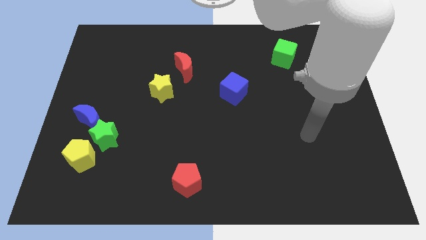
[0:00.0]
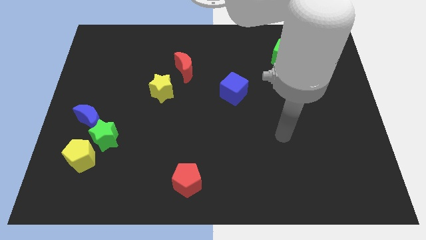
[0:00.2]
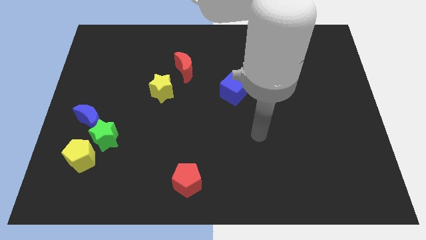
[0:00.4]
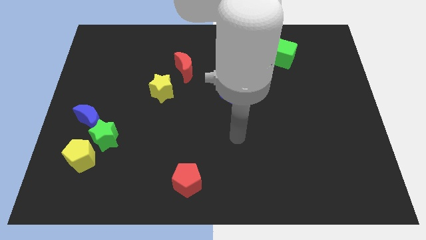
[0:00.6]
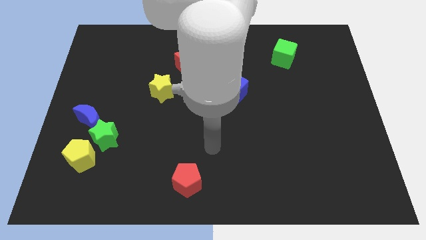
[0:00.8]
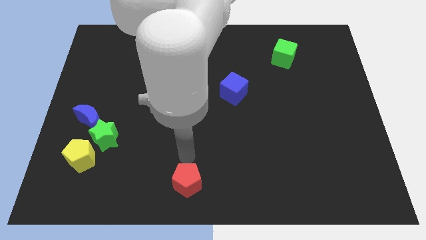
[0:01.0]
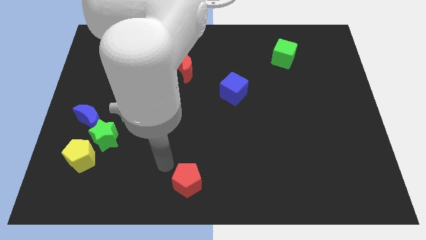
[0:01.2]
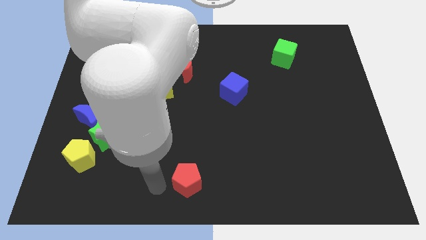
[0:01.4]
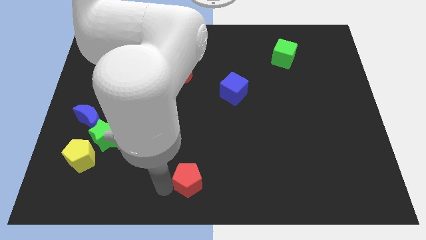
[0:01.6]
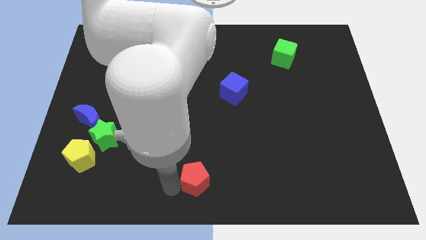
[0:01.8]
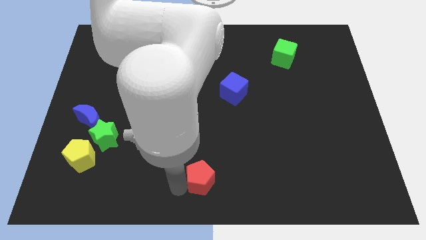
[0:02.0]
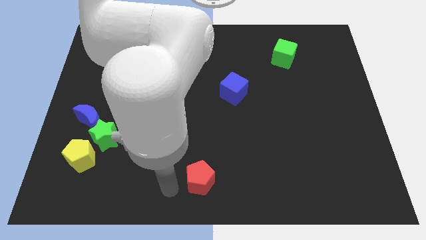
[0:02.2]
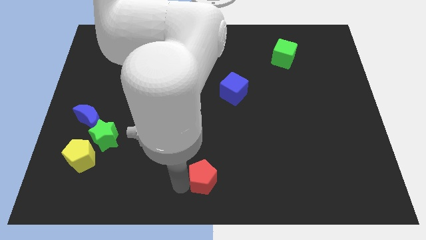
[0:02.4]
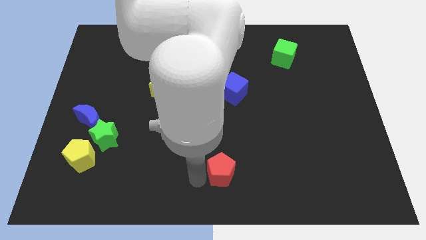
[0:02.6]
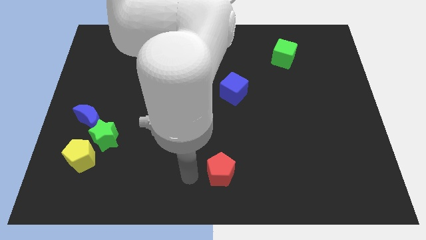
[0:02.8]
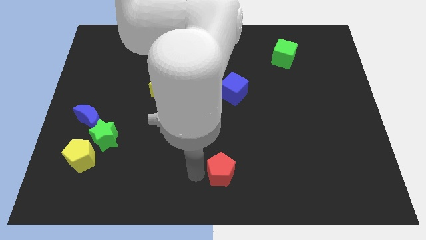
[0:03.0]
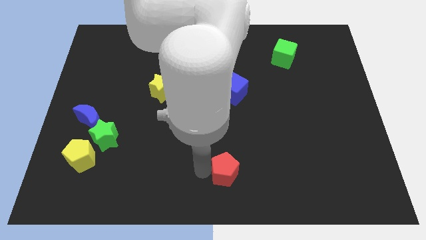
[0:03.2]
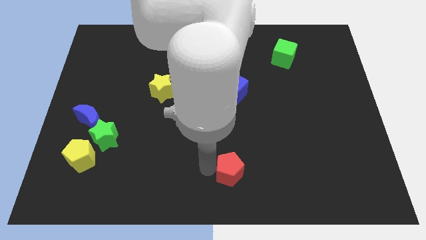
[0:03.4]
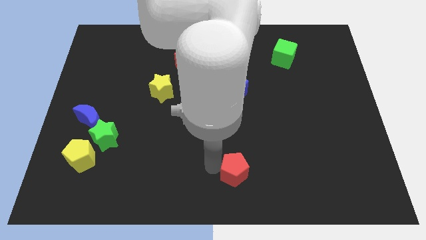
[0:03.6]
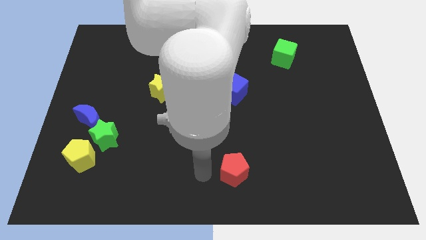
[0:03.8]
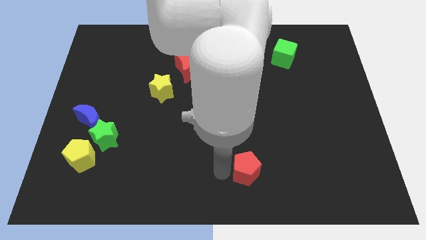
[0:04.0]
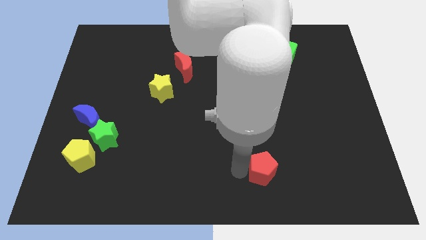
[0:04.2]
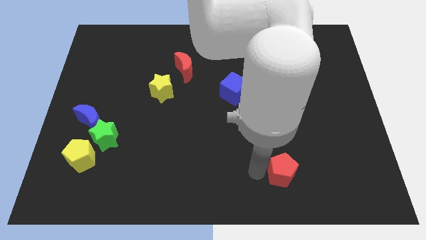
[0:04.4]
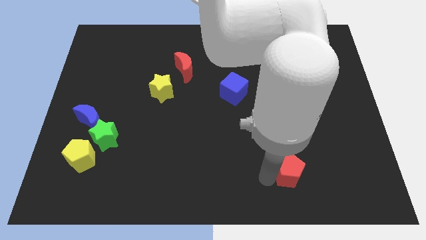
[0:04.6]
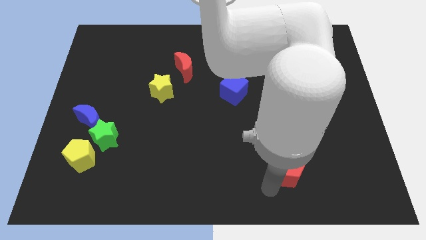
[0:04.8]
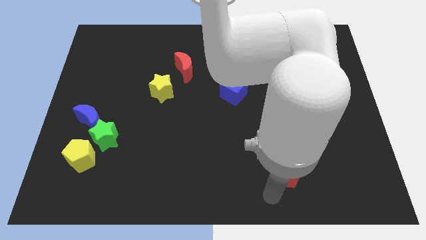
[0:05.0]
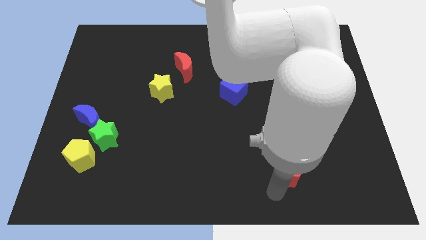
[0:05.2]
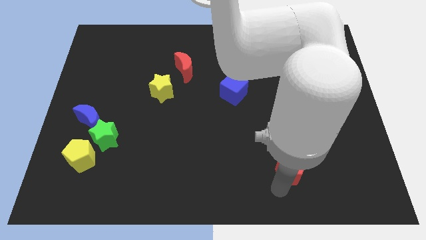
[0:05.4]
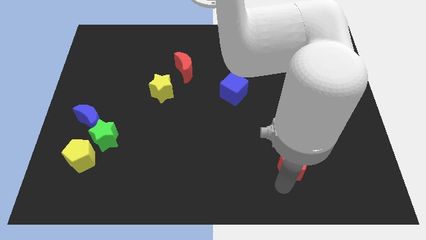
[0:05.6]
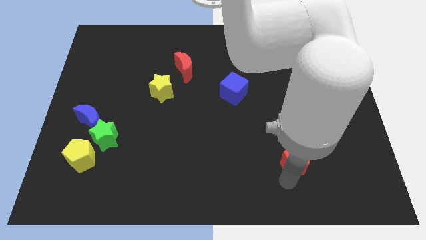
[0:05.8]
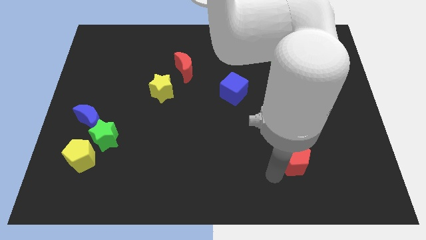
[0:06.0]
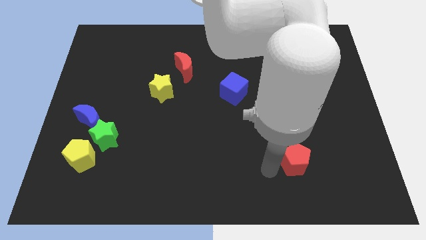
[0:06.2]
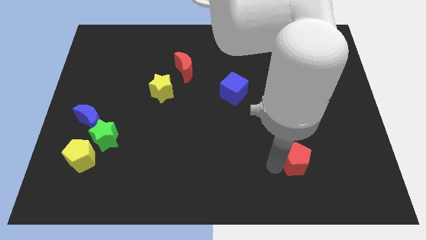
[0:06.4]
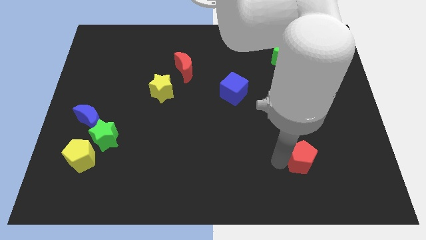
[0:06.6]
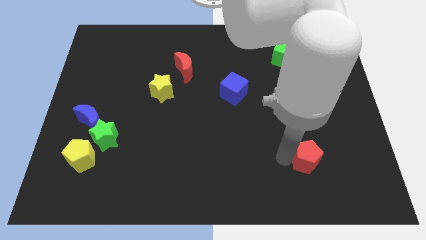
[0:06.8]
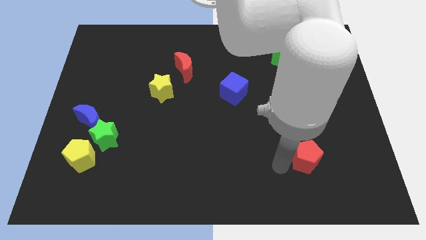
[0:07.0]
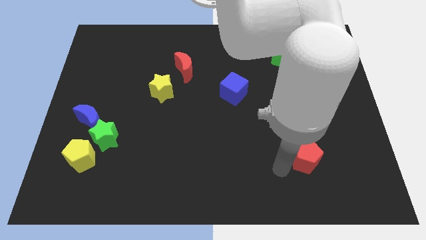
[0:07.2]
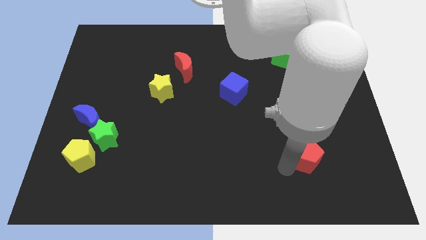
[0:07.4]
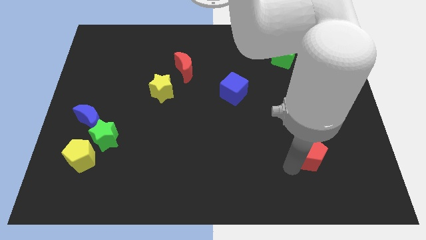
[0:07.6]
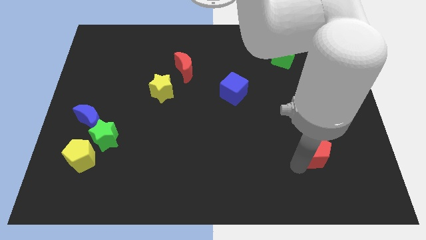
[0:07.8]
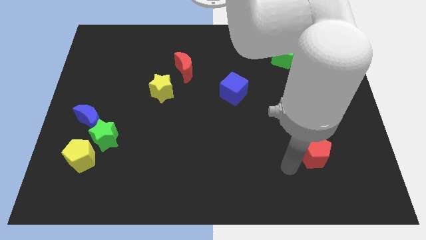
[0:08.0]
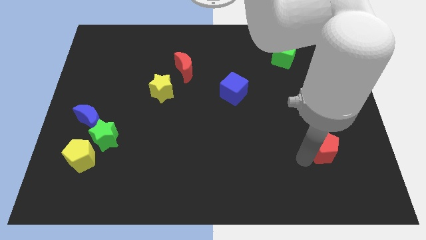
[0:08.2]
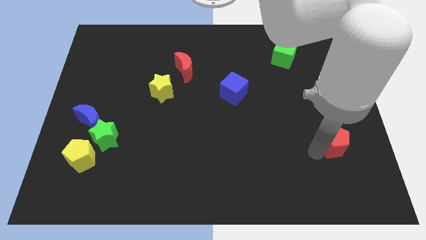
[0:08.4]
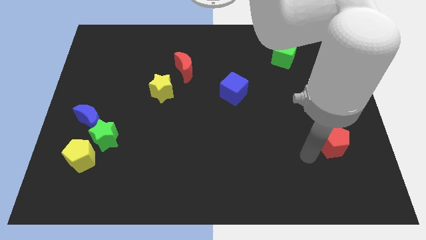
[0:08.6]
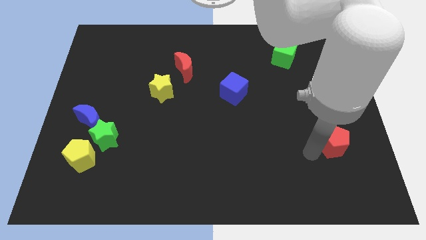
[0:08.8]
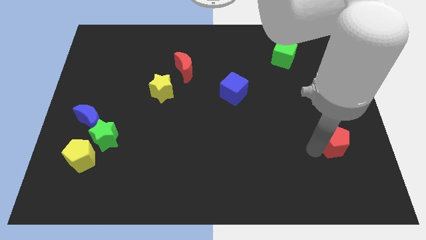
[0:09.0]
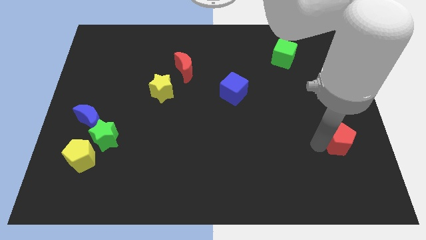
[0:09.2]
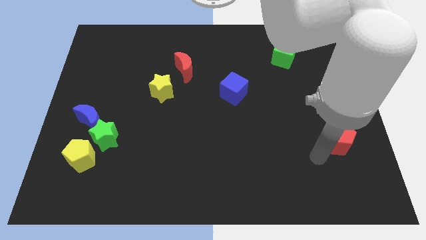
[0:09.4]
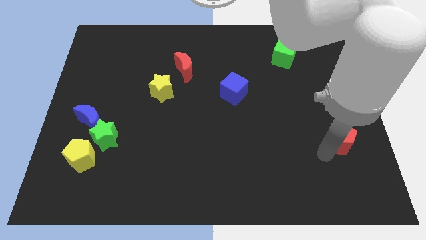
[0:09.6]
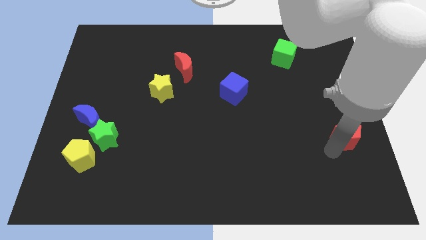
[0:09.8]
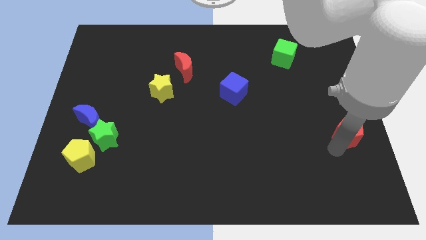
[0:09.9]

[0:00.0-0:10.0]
put the red pentagon to the right side

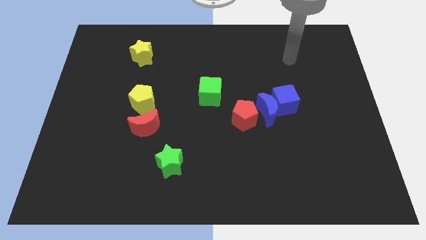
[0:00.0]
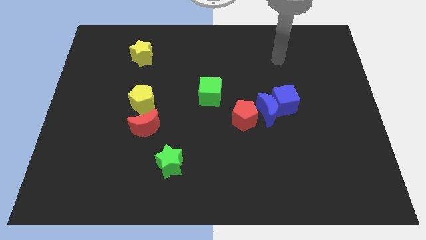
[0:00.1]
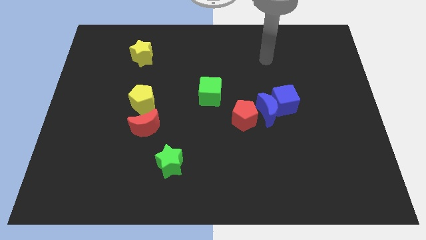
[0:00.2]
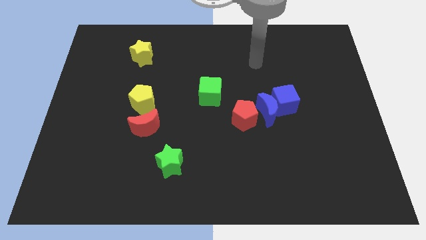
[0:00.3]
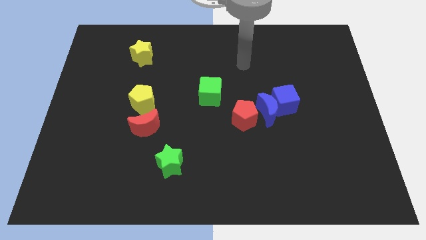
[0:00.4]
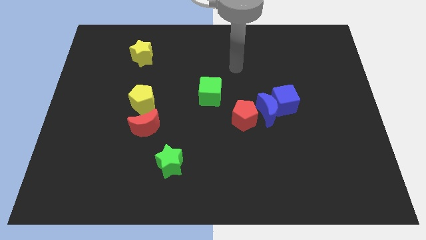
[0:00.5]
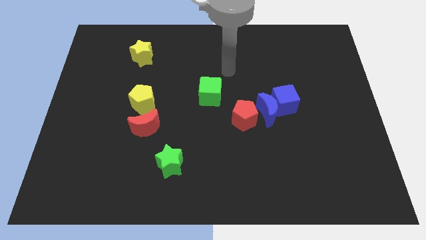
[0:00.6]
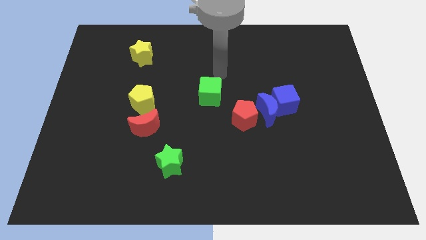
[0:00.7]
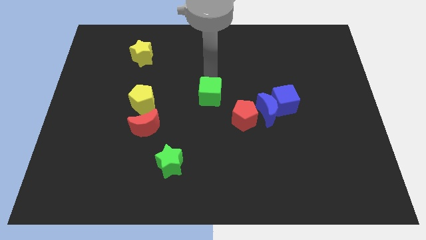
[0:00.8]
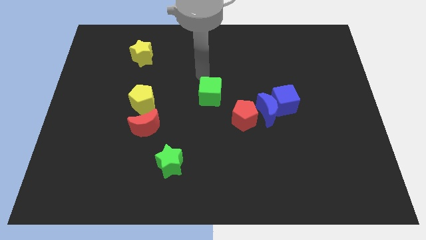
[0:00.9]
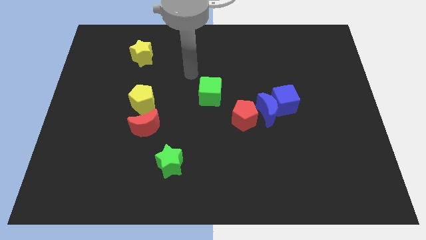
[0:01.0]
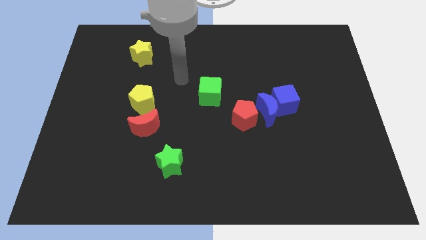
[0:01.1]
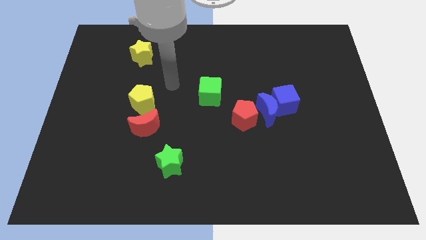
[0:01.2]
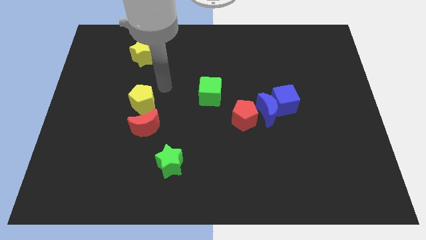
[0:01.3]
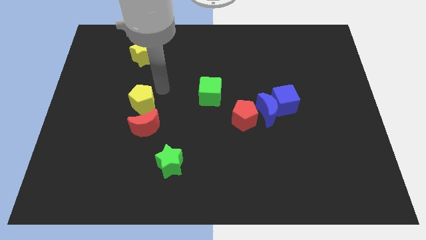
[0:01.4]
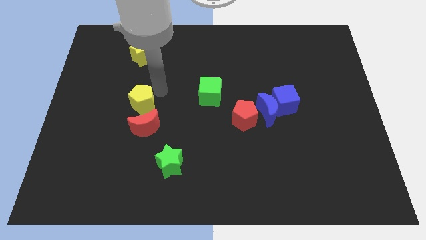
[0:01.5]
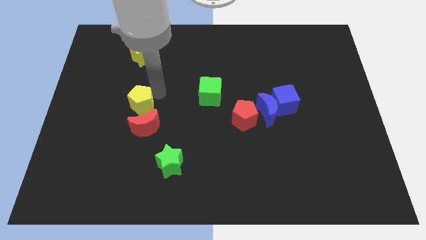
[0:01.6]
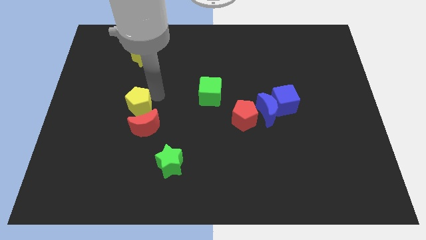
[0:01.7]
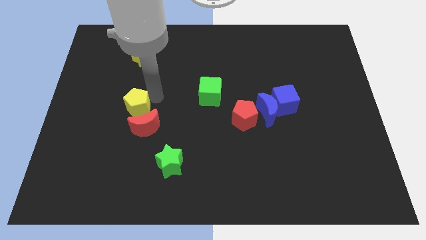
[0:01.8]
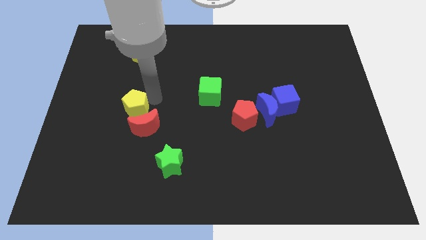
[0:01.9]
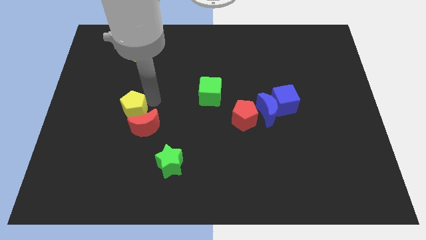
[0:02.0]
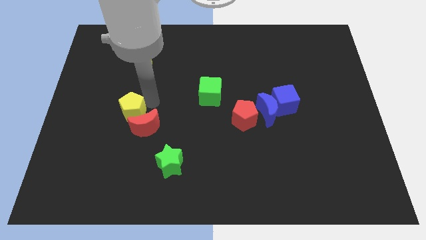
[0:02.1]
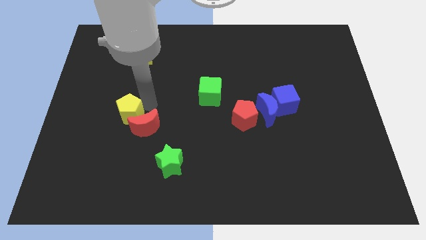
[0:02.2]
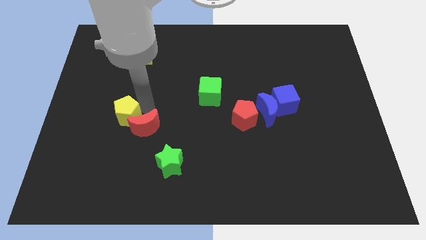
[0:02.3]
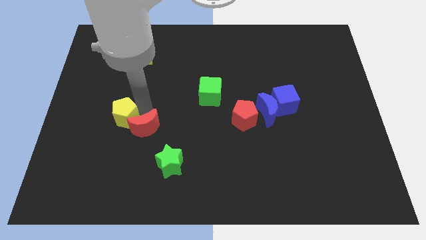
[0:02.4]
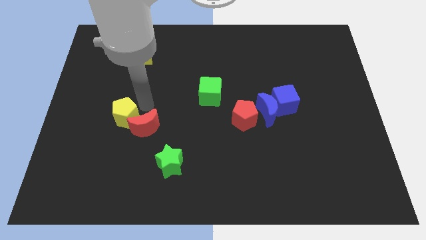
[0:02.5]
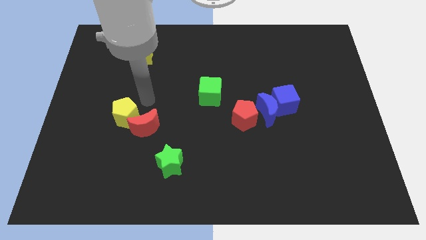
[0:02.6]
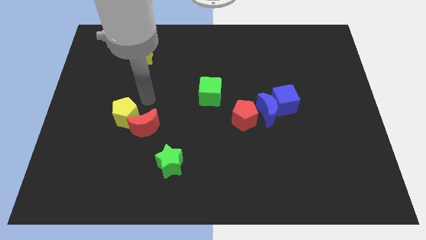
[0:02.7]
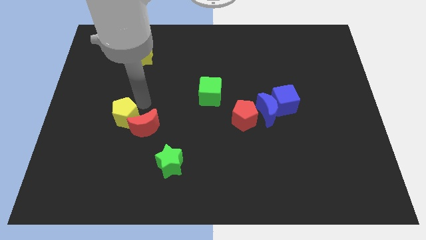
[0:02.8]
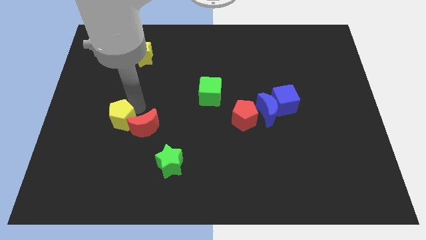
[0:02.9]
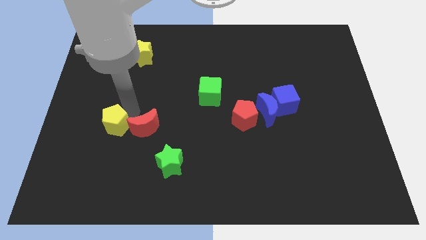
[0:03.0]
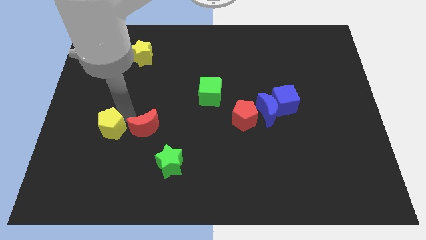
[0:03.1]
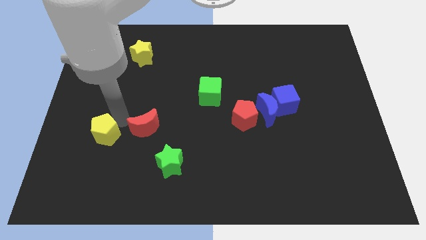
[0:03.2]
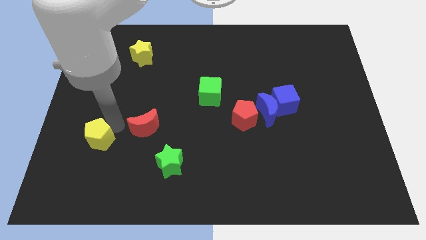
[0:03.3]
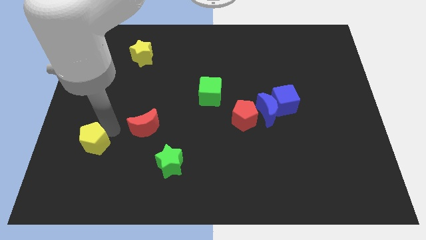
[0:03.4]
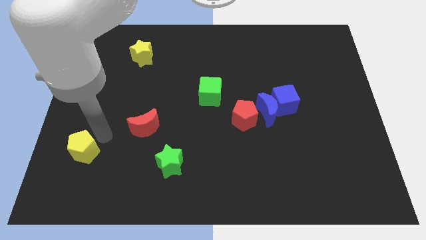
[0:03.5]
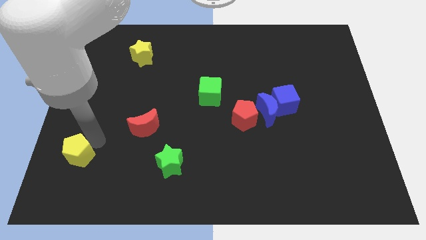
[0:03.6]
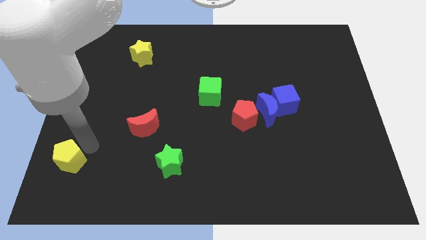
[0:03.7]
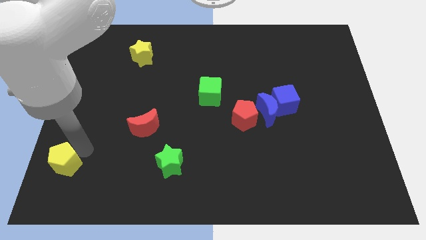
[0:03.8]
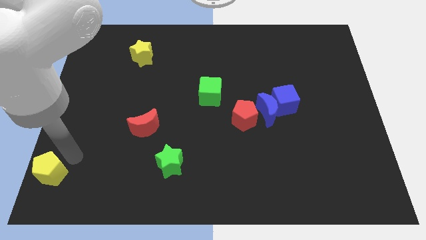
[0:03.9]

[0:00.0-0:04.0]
slide the yellow pentagon to the lower left corner
